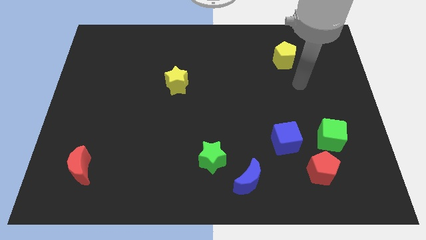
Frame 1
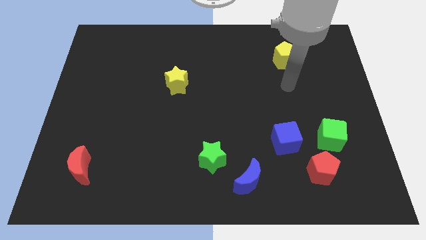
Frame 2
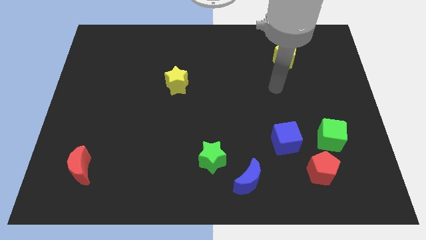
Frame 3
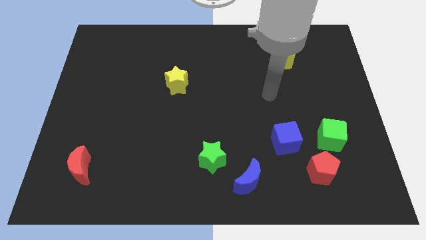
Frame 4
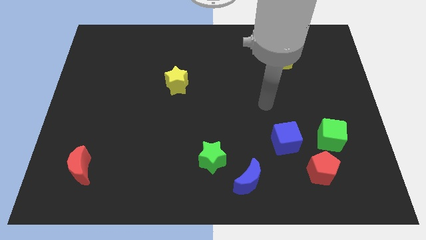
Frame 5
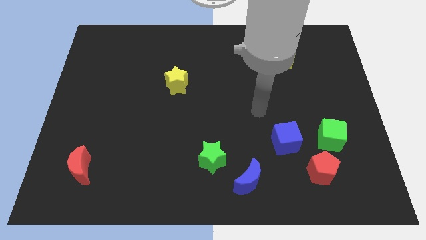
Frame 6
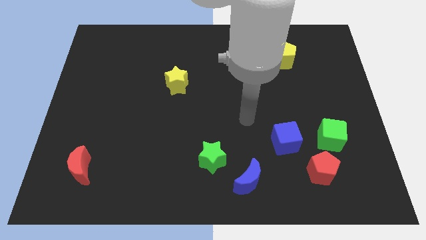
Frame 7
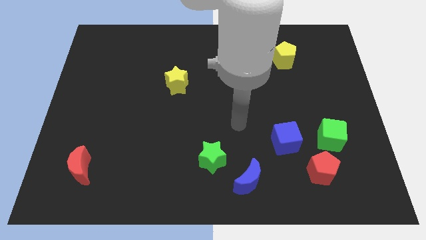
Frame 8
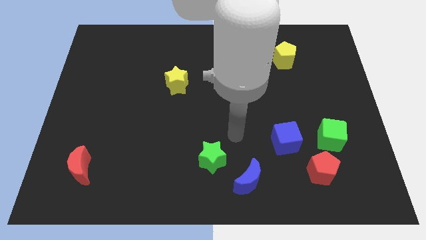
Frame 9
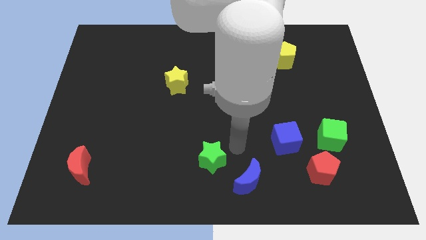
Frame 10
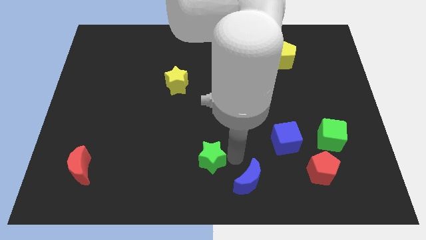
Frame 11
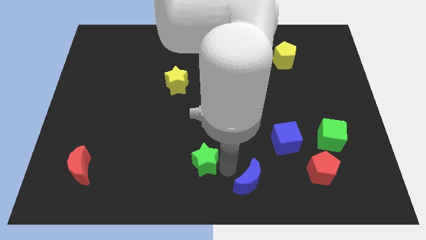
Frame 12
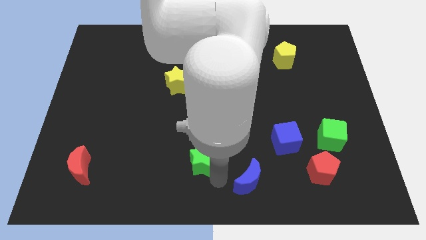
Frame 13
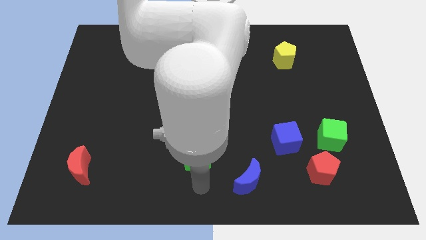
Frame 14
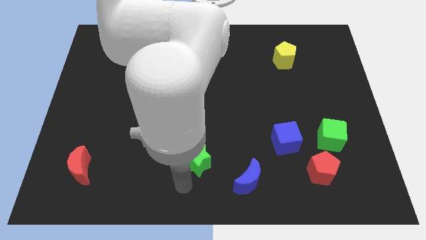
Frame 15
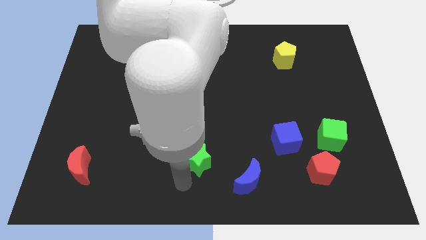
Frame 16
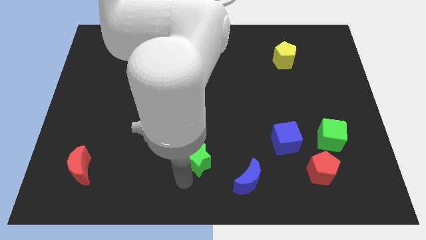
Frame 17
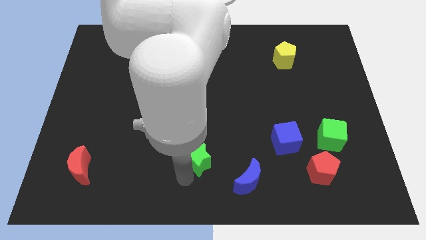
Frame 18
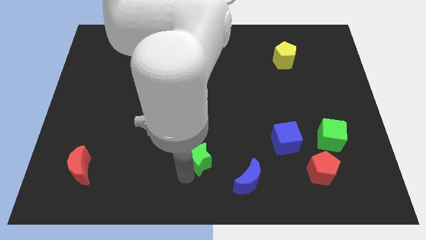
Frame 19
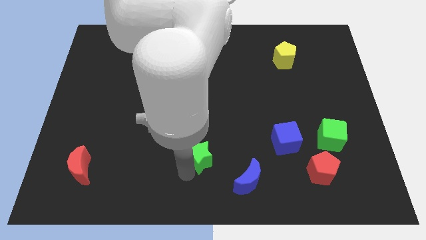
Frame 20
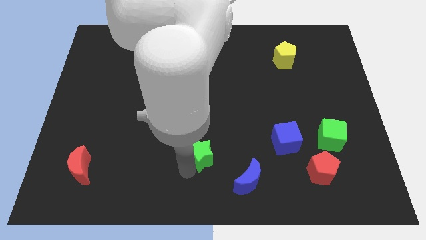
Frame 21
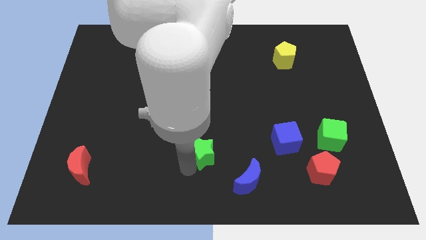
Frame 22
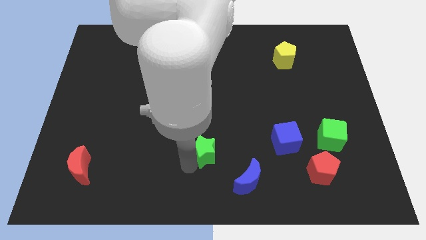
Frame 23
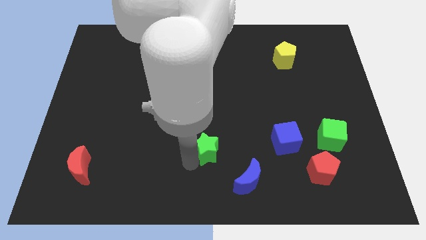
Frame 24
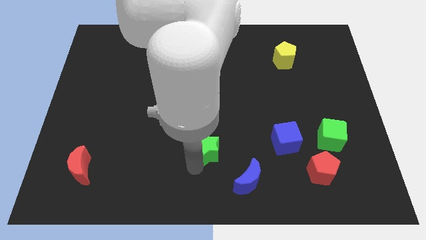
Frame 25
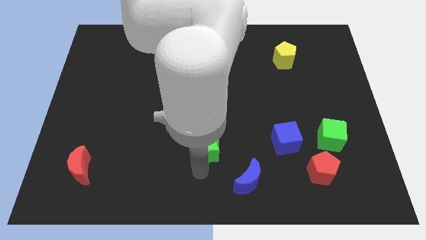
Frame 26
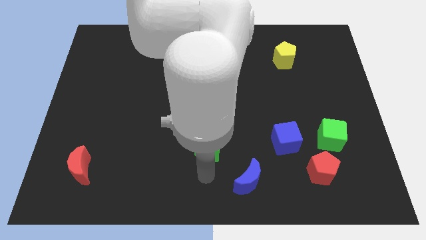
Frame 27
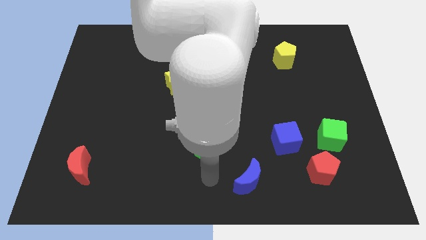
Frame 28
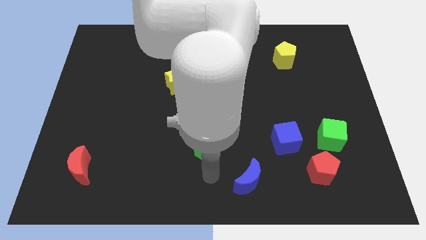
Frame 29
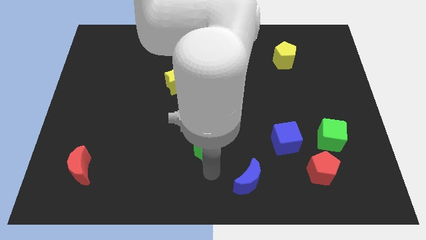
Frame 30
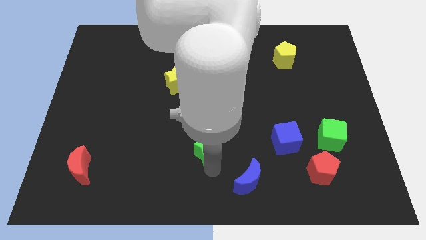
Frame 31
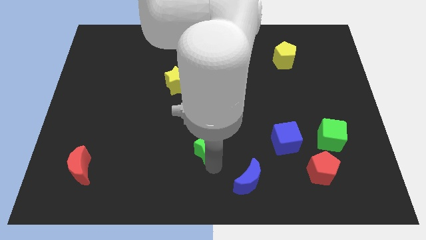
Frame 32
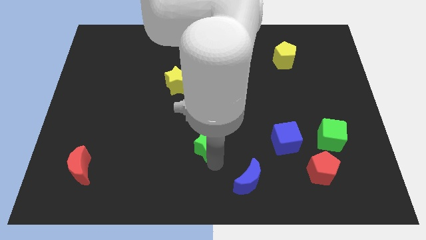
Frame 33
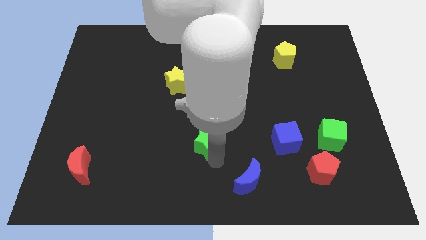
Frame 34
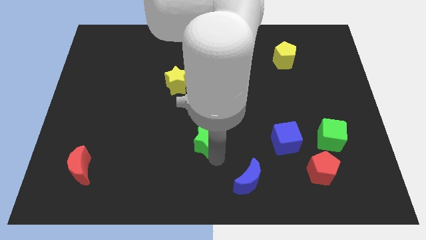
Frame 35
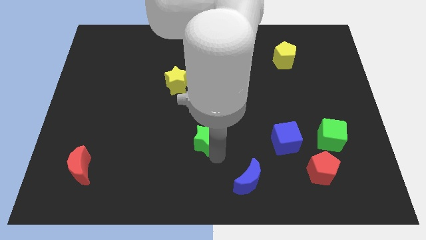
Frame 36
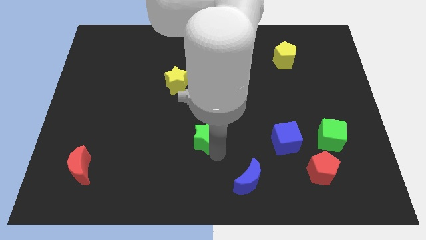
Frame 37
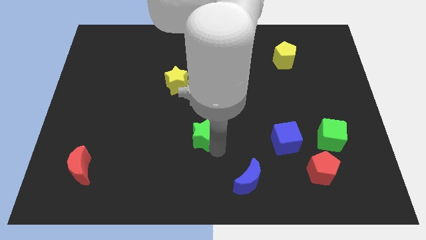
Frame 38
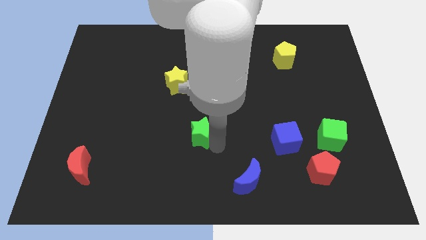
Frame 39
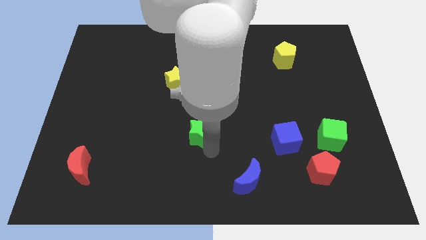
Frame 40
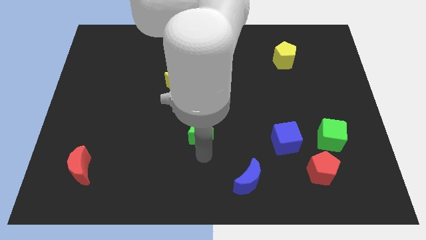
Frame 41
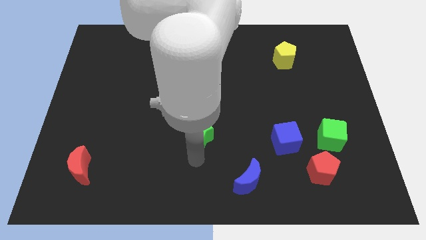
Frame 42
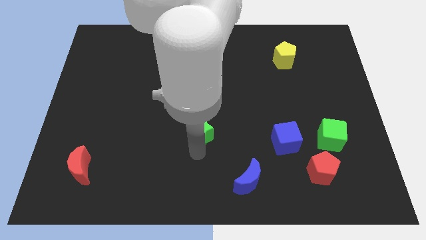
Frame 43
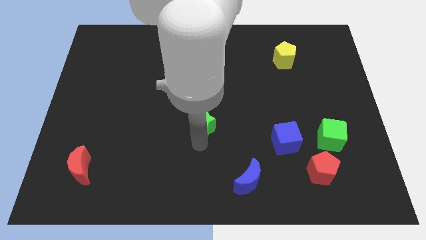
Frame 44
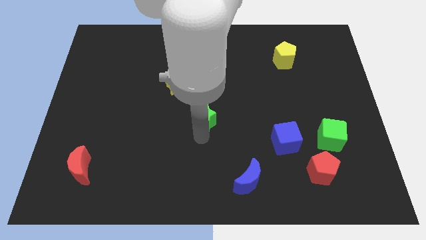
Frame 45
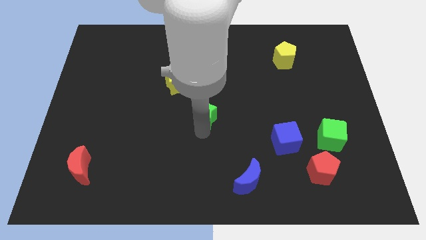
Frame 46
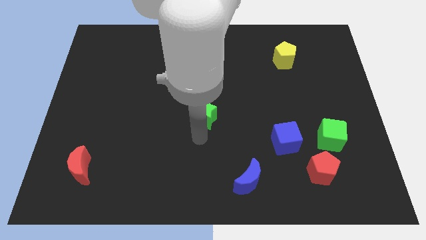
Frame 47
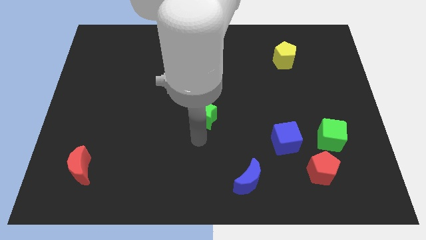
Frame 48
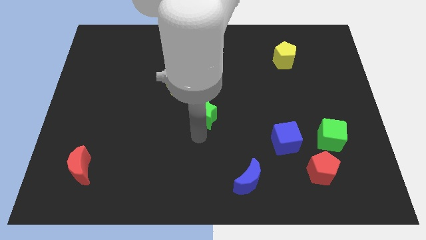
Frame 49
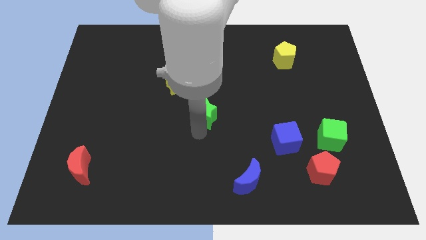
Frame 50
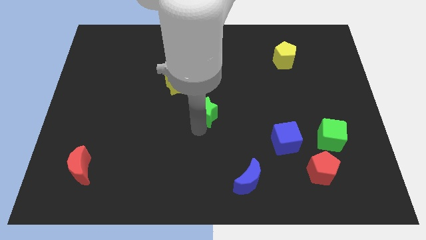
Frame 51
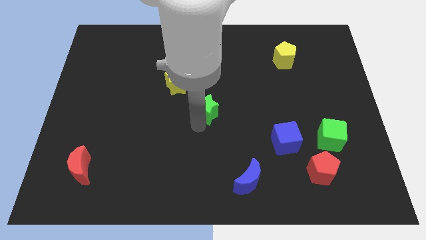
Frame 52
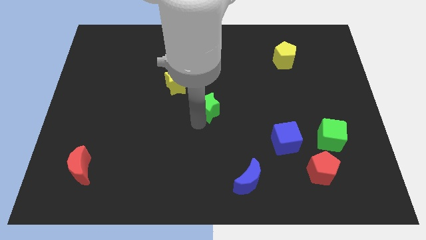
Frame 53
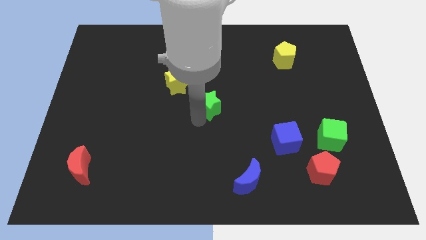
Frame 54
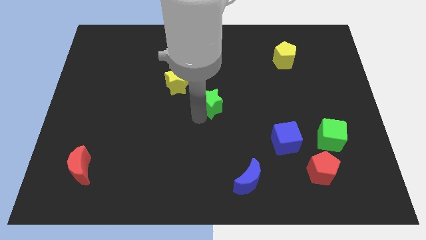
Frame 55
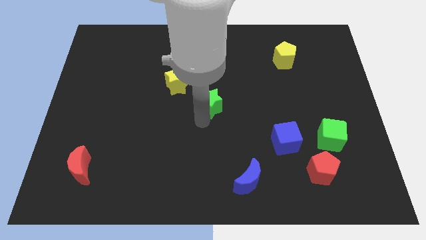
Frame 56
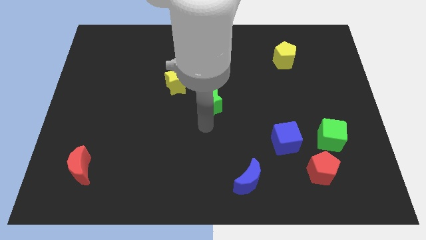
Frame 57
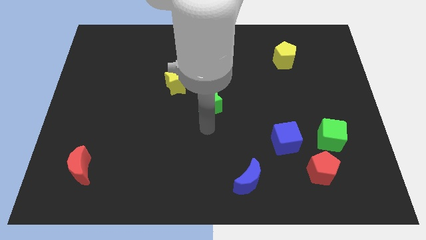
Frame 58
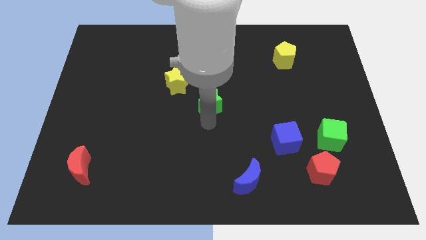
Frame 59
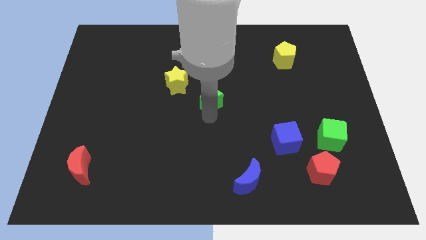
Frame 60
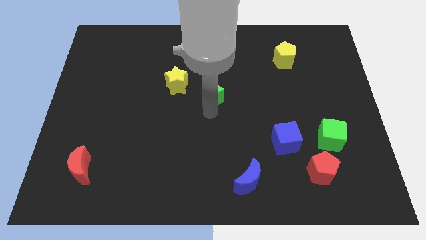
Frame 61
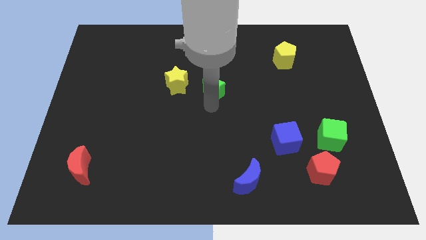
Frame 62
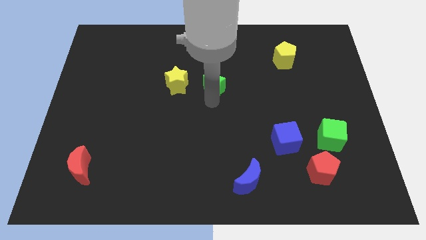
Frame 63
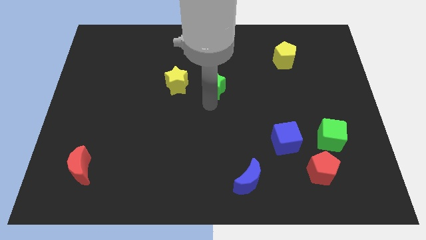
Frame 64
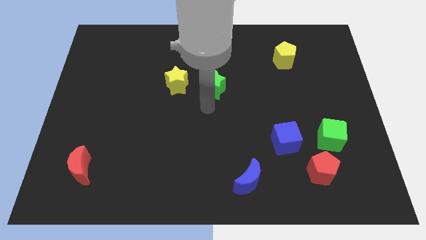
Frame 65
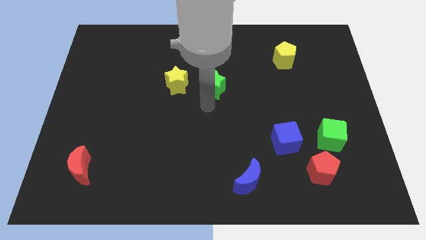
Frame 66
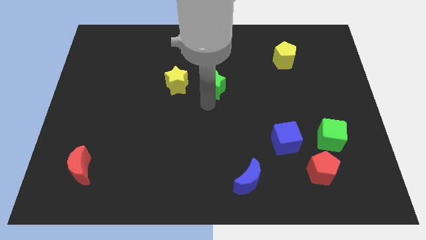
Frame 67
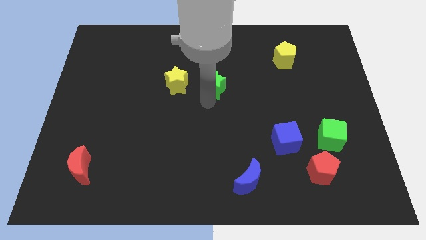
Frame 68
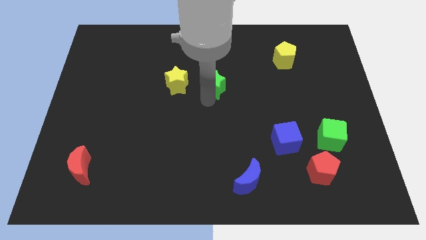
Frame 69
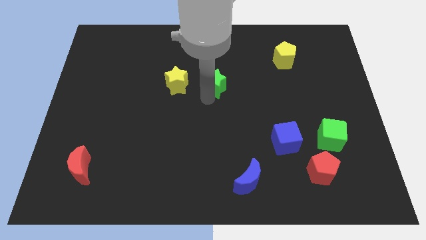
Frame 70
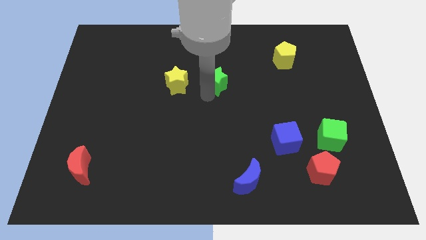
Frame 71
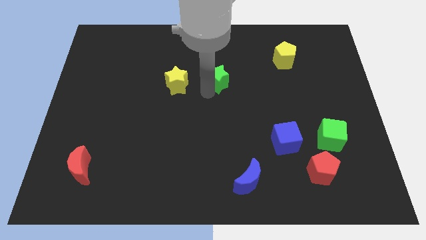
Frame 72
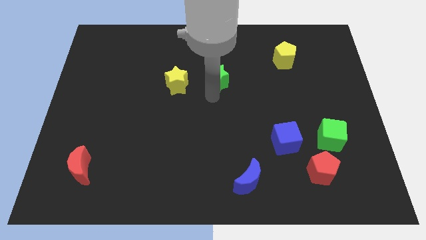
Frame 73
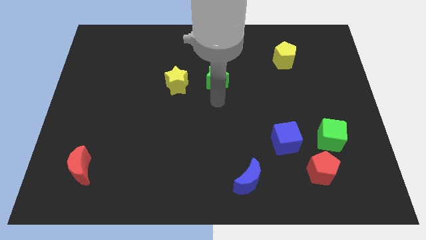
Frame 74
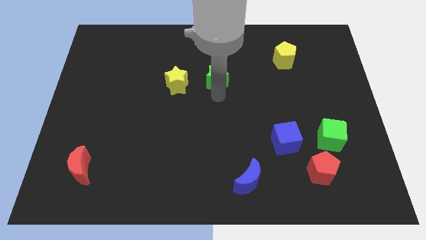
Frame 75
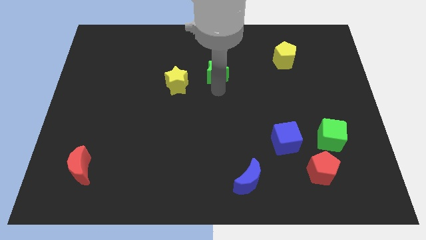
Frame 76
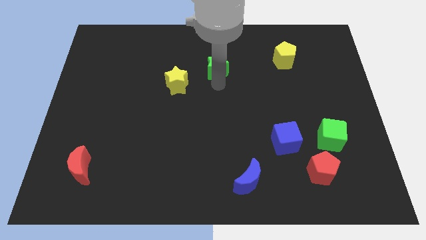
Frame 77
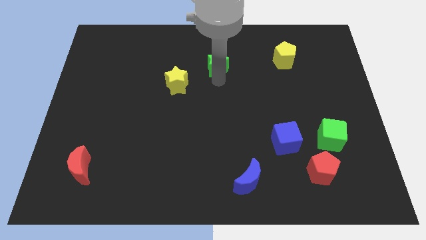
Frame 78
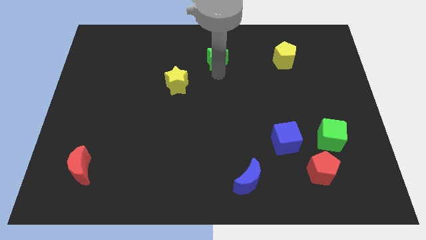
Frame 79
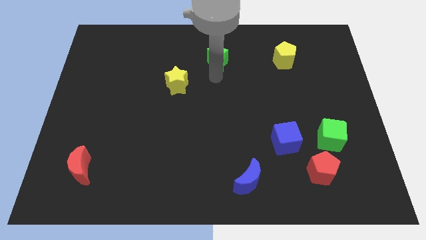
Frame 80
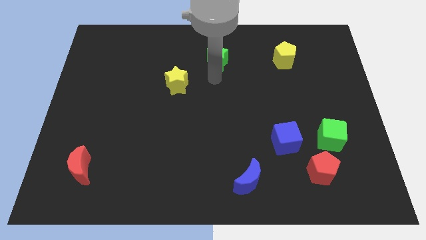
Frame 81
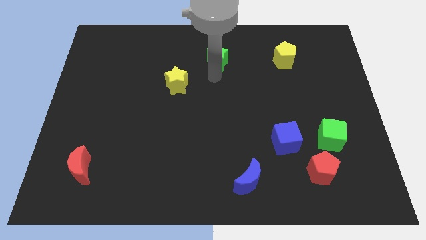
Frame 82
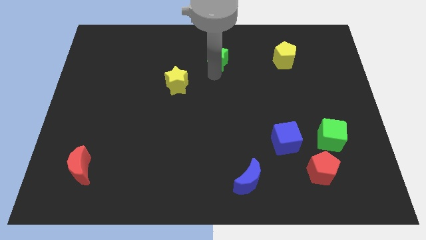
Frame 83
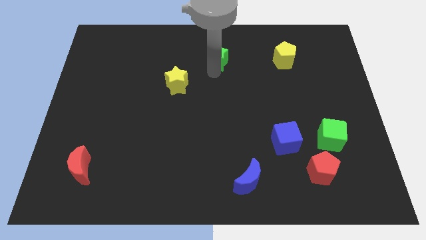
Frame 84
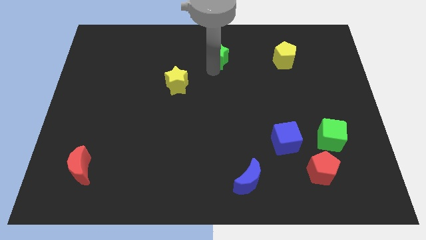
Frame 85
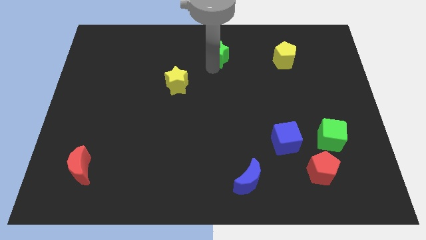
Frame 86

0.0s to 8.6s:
move the green star to the top side
